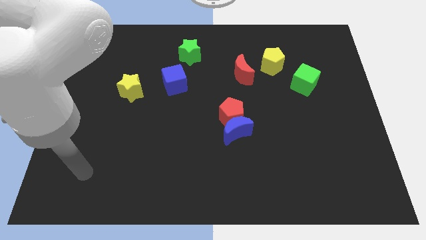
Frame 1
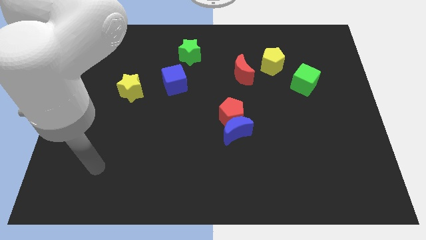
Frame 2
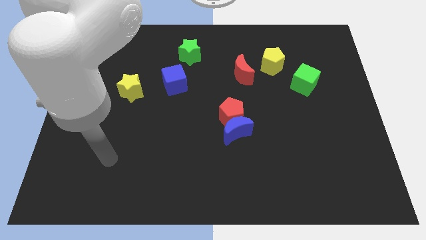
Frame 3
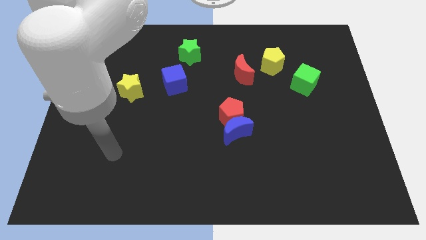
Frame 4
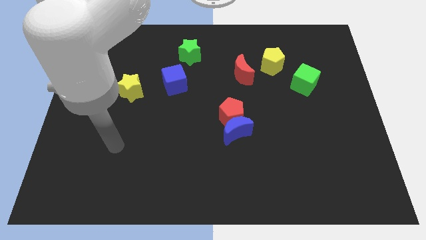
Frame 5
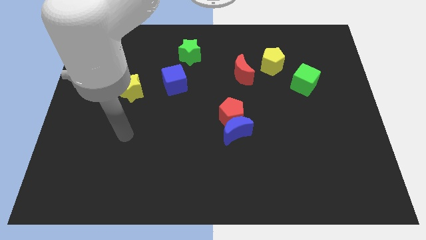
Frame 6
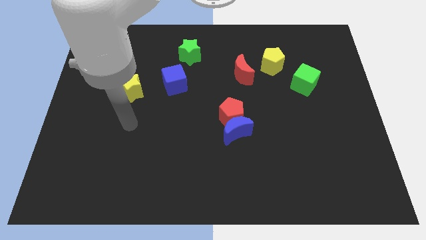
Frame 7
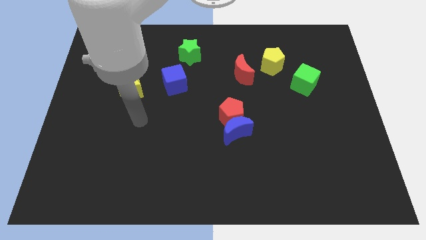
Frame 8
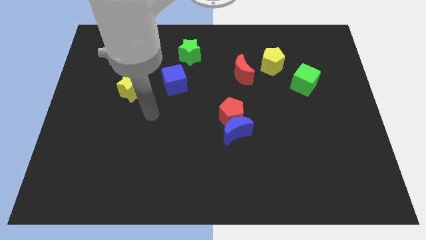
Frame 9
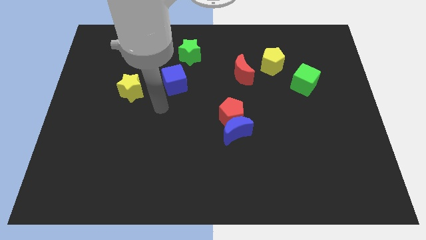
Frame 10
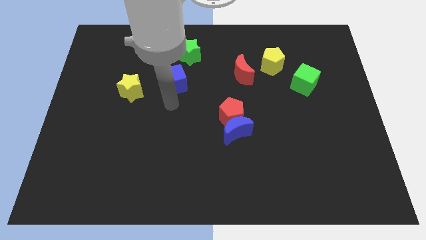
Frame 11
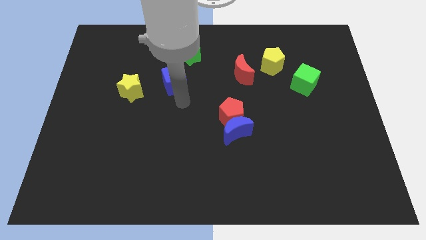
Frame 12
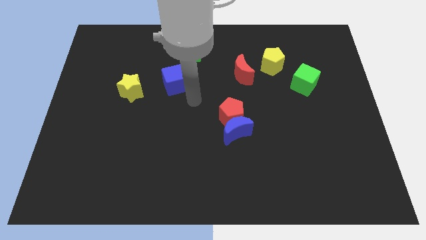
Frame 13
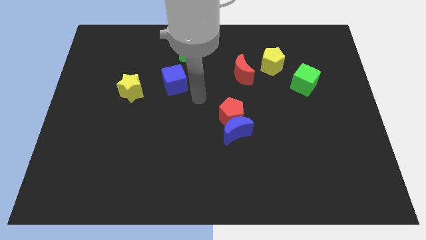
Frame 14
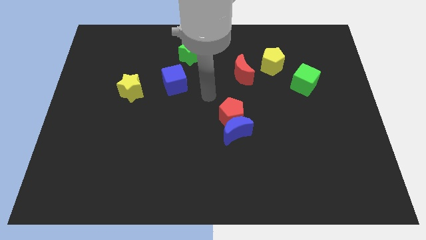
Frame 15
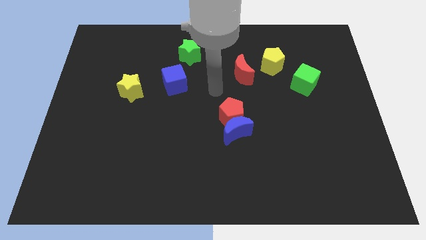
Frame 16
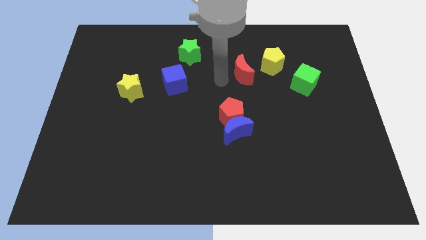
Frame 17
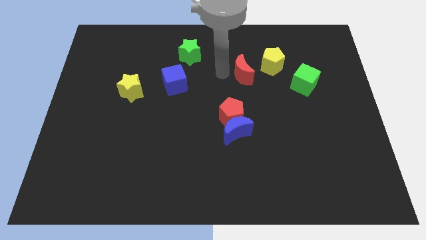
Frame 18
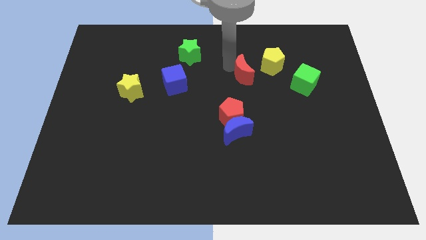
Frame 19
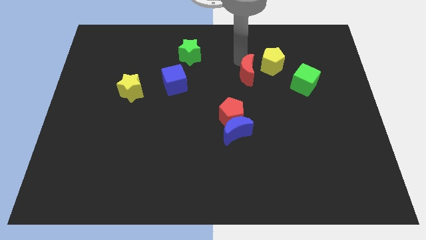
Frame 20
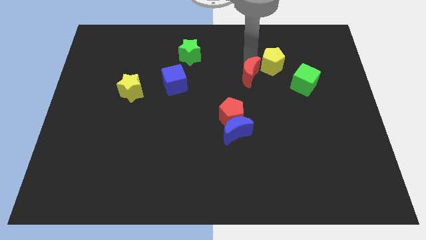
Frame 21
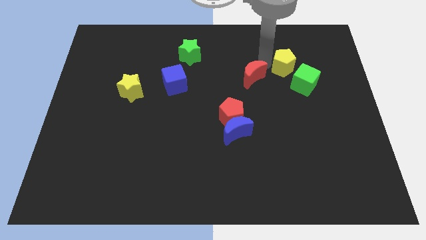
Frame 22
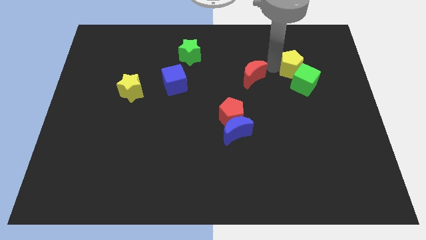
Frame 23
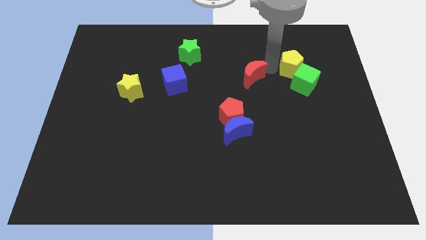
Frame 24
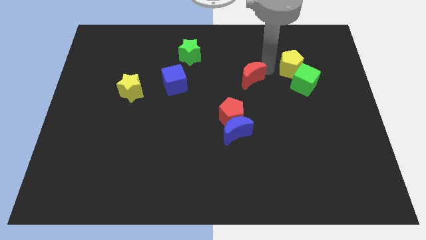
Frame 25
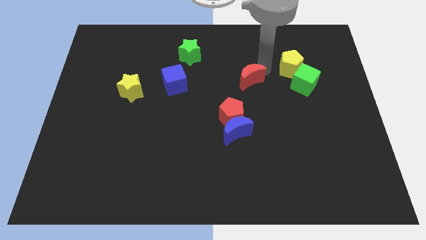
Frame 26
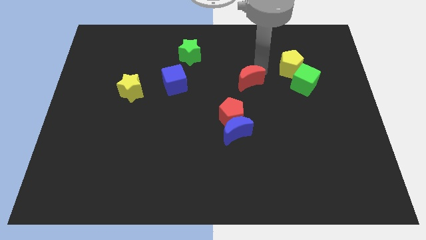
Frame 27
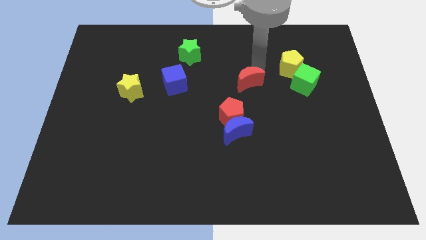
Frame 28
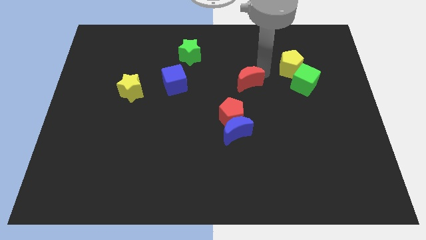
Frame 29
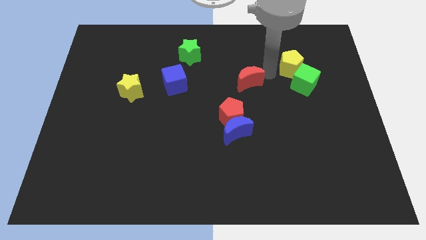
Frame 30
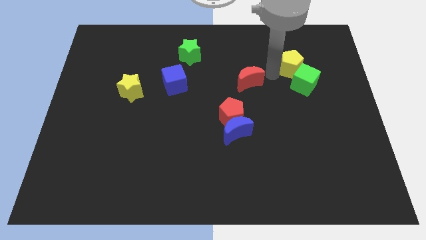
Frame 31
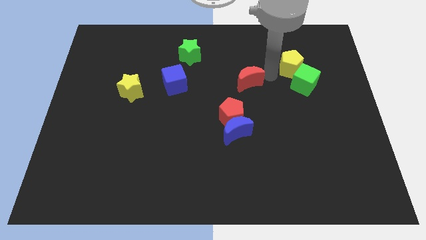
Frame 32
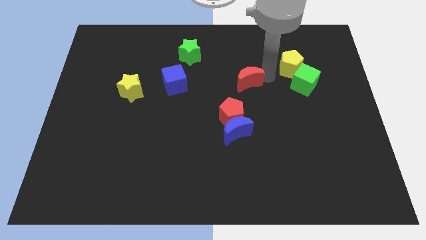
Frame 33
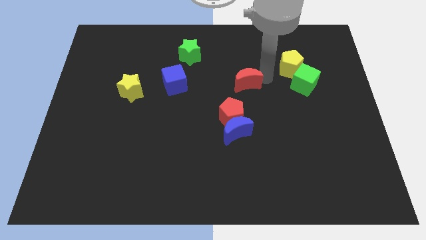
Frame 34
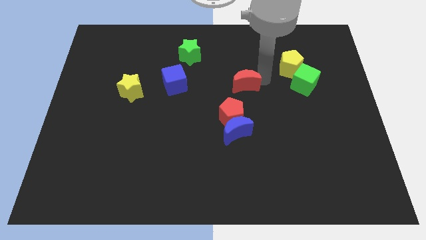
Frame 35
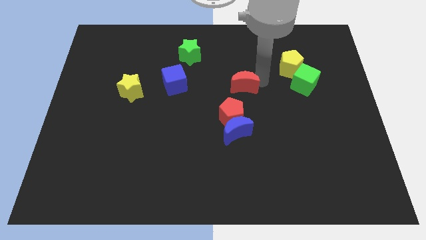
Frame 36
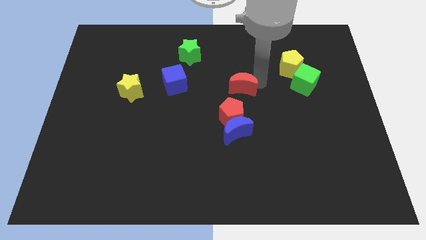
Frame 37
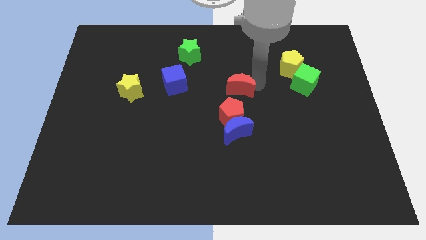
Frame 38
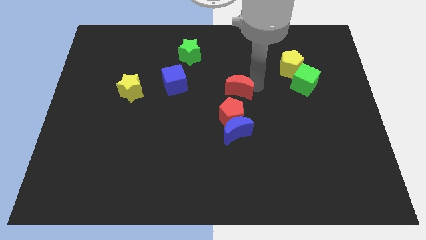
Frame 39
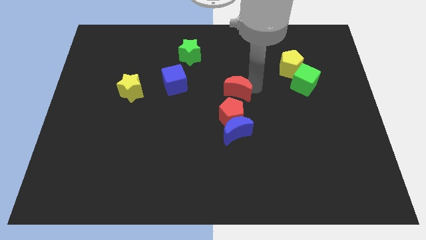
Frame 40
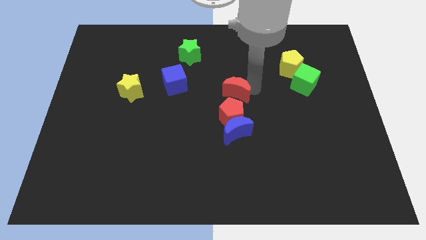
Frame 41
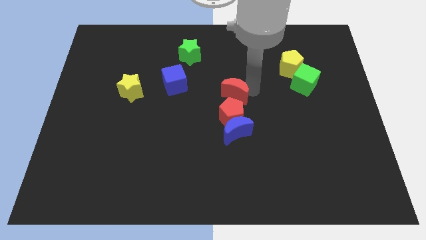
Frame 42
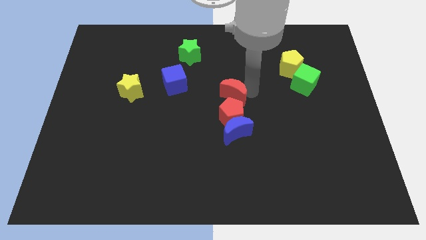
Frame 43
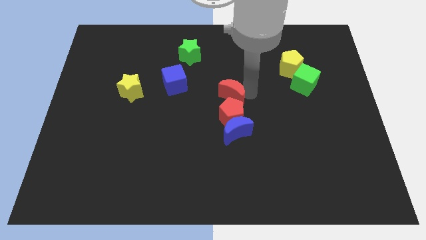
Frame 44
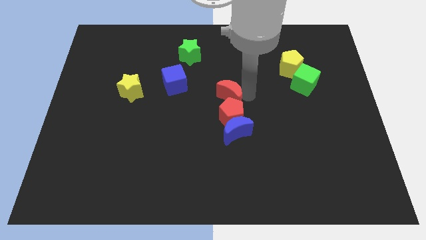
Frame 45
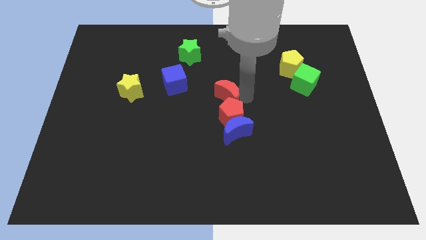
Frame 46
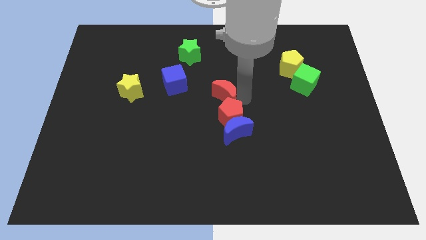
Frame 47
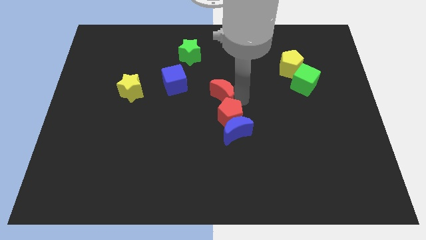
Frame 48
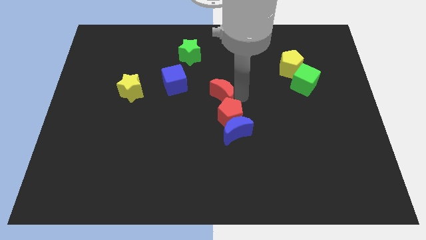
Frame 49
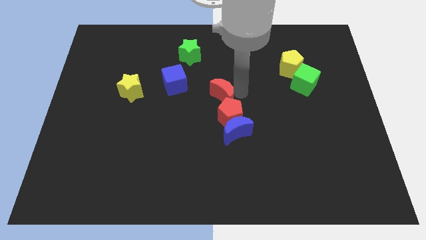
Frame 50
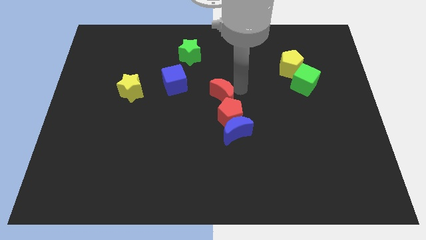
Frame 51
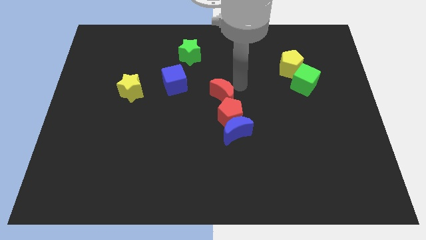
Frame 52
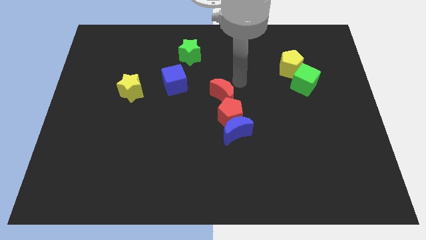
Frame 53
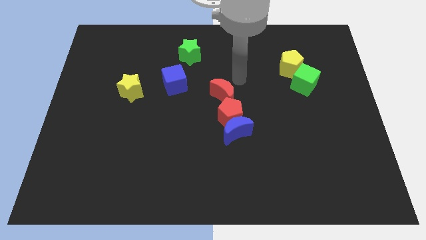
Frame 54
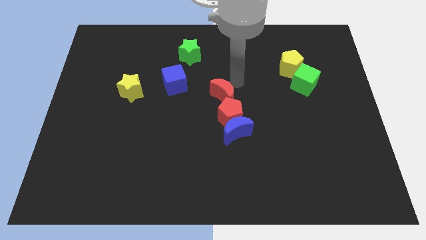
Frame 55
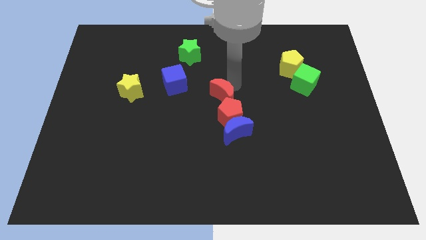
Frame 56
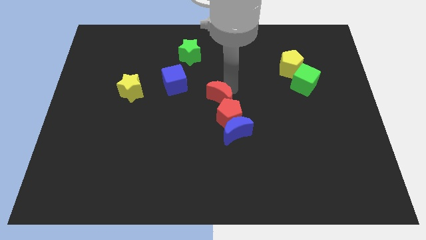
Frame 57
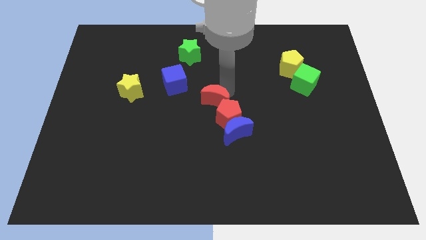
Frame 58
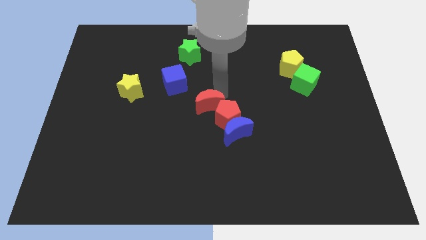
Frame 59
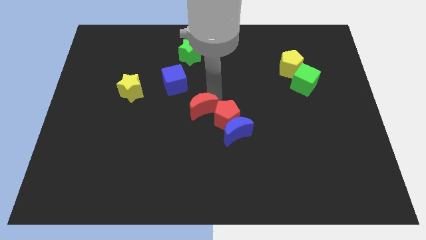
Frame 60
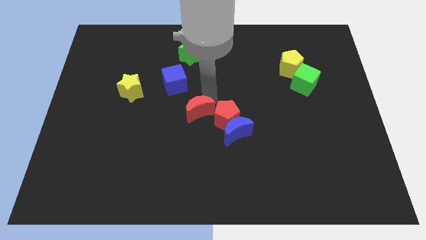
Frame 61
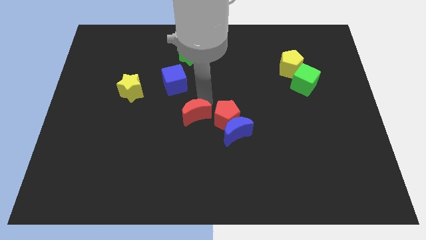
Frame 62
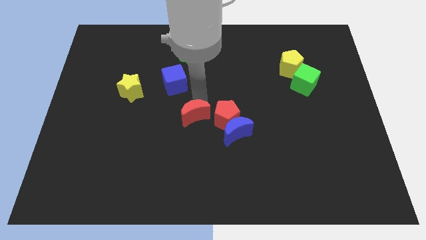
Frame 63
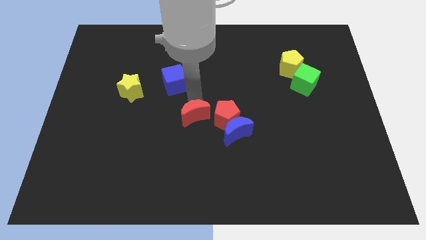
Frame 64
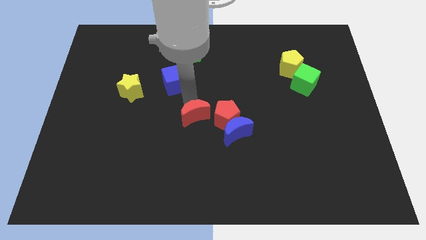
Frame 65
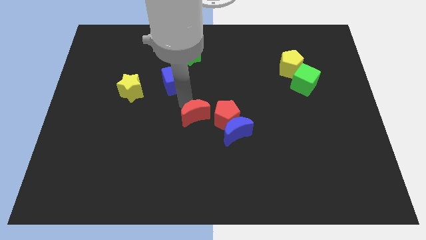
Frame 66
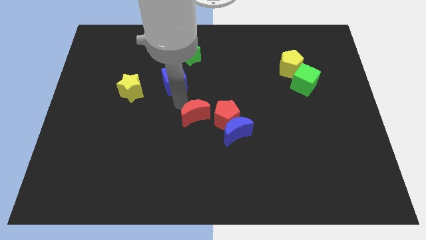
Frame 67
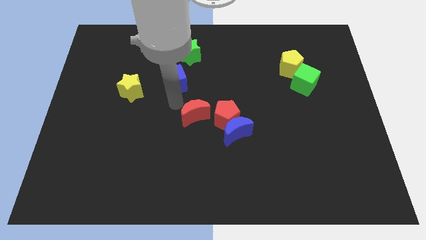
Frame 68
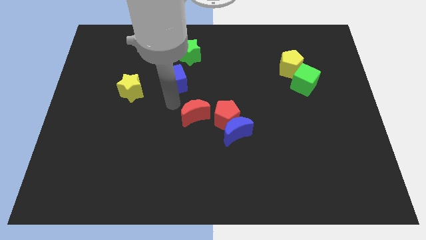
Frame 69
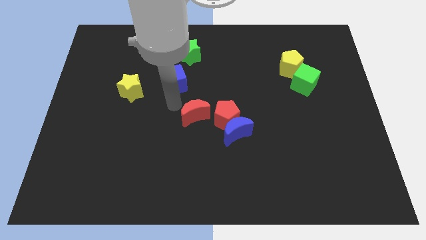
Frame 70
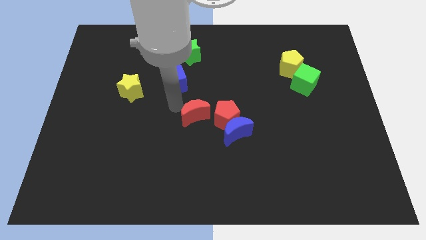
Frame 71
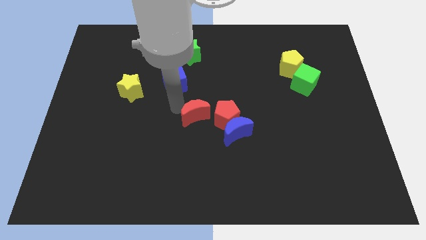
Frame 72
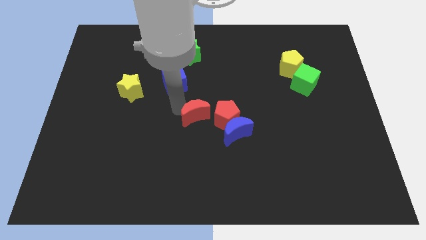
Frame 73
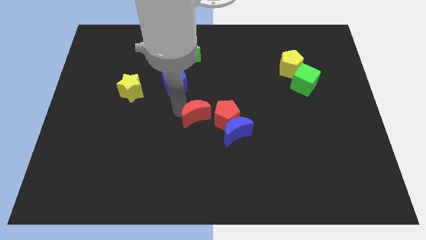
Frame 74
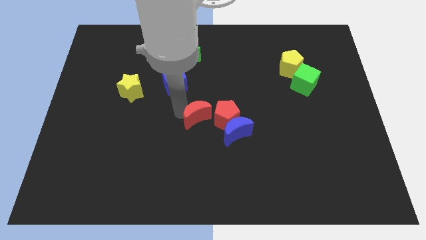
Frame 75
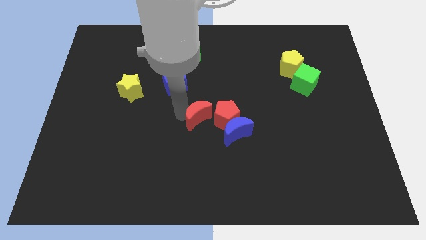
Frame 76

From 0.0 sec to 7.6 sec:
push the red moon to the bottom left of the red pentagon
